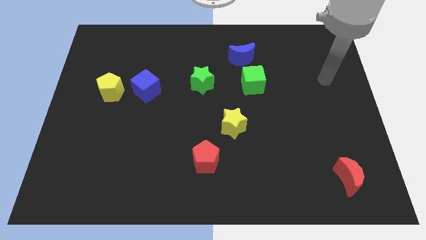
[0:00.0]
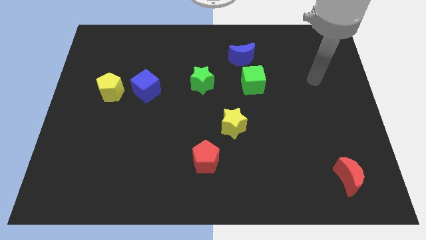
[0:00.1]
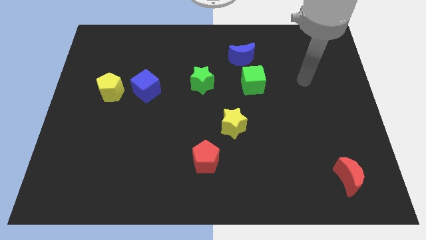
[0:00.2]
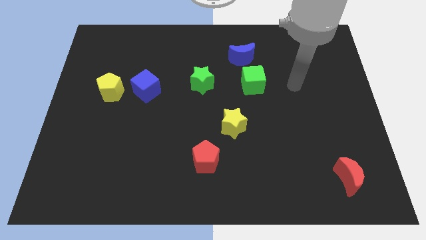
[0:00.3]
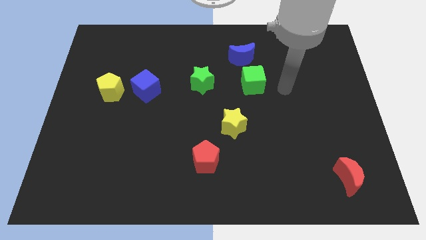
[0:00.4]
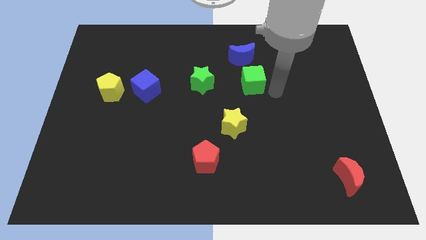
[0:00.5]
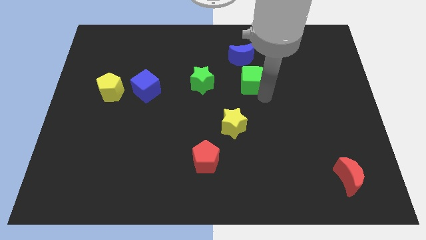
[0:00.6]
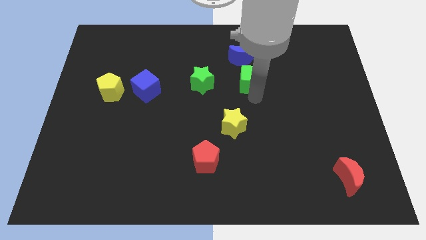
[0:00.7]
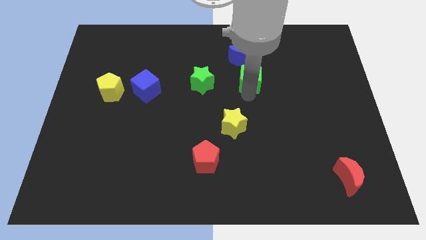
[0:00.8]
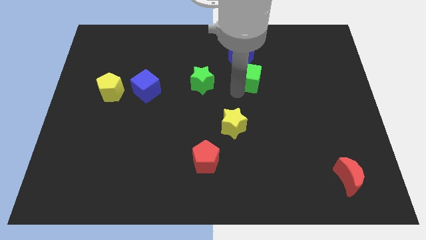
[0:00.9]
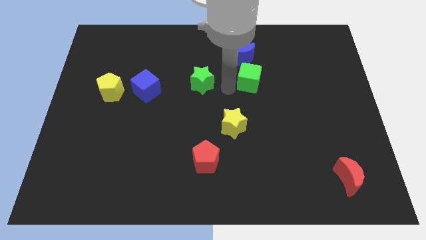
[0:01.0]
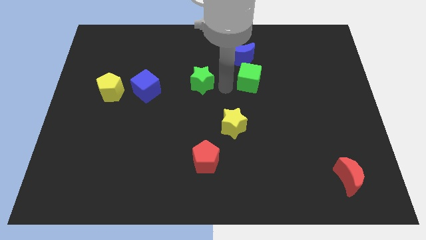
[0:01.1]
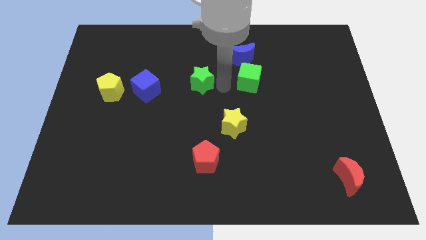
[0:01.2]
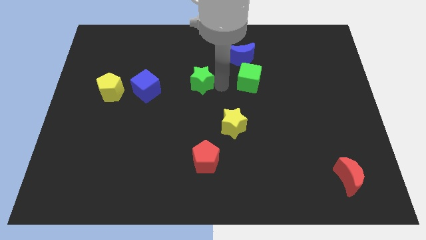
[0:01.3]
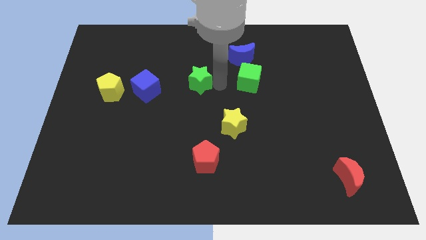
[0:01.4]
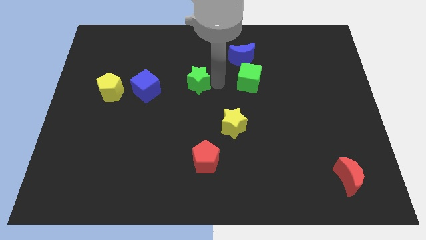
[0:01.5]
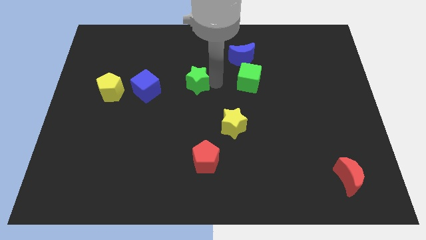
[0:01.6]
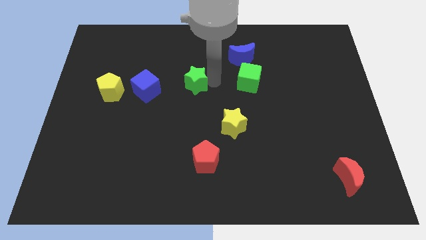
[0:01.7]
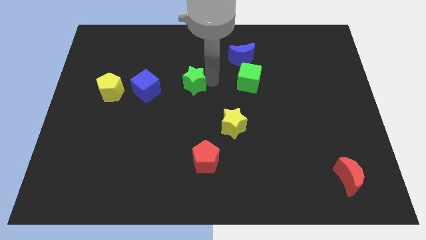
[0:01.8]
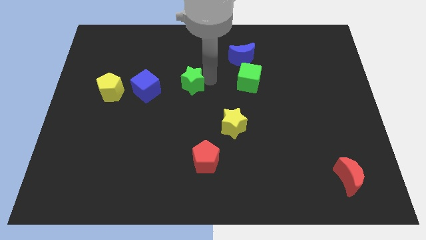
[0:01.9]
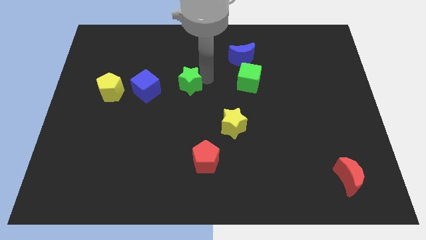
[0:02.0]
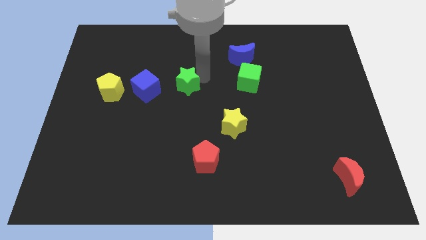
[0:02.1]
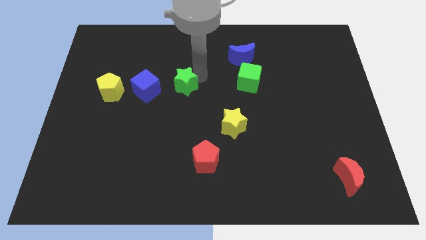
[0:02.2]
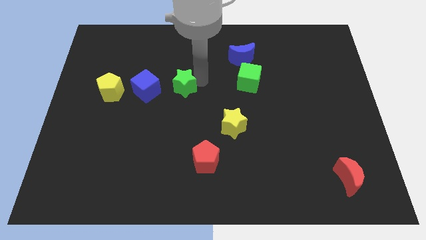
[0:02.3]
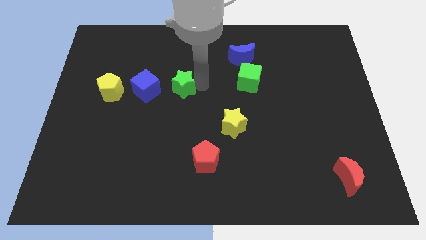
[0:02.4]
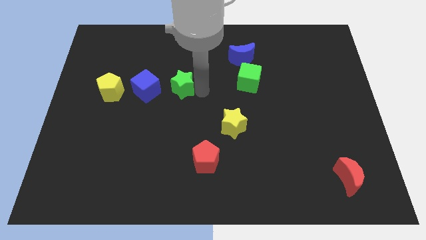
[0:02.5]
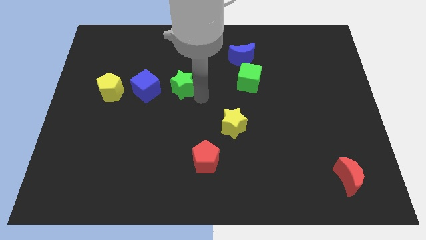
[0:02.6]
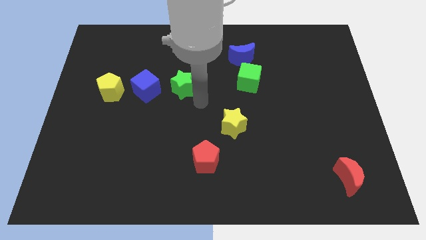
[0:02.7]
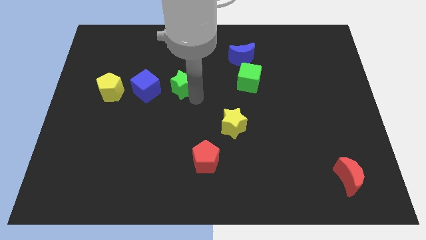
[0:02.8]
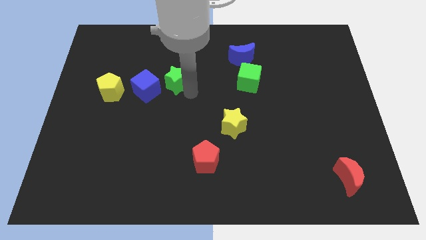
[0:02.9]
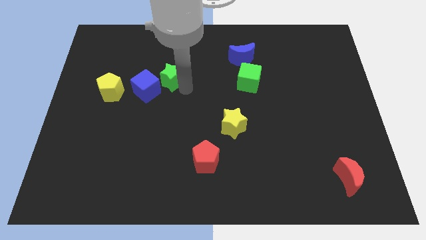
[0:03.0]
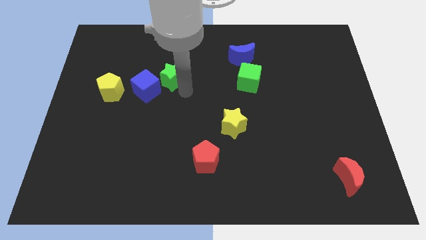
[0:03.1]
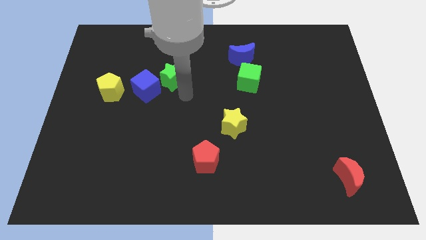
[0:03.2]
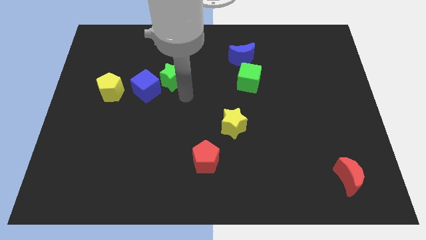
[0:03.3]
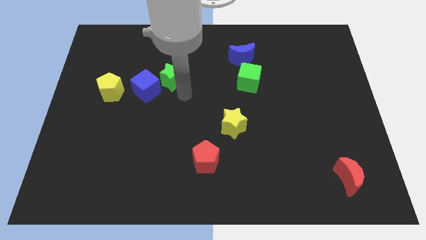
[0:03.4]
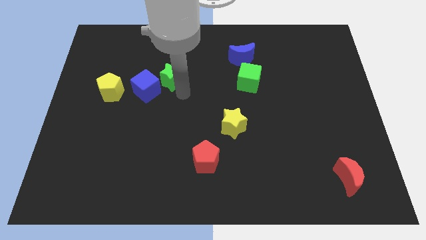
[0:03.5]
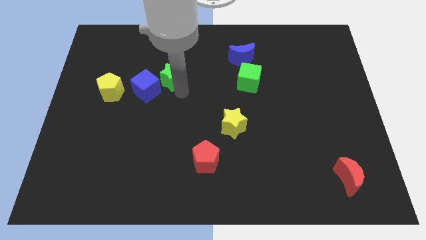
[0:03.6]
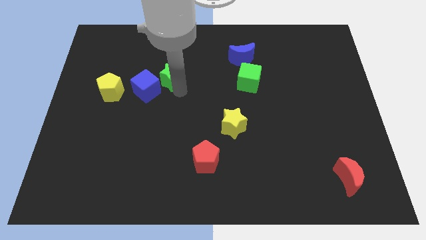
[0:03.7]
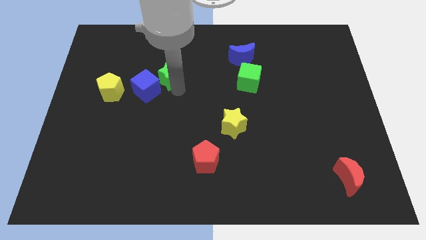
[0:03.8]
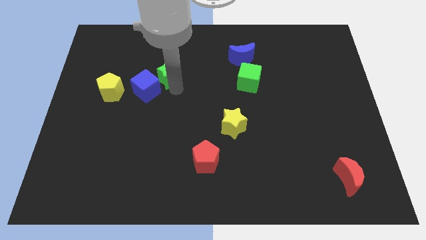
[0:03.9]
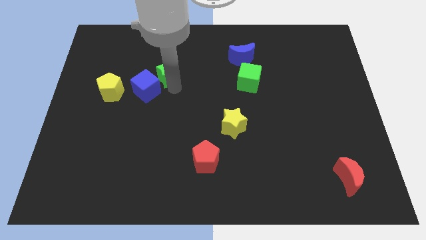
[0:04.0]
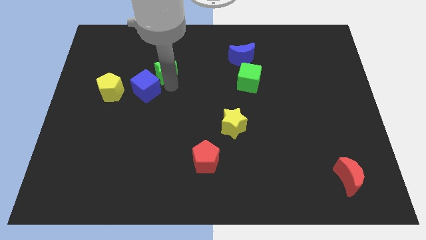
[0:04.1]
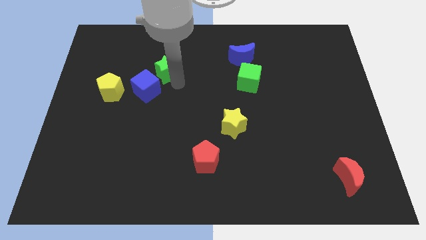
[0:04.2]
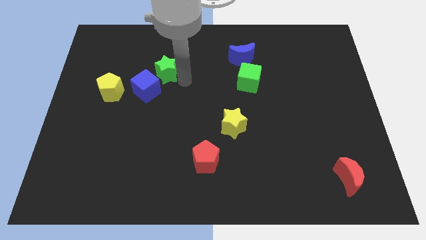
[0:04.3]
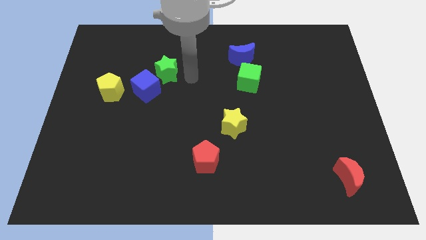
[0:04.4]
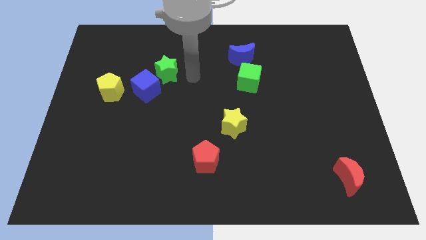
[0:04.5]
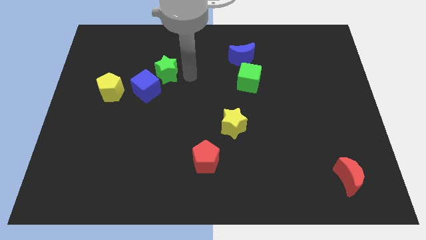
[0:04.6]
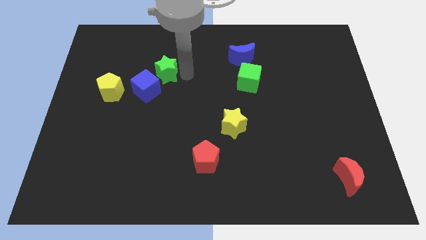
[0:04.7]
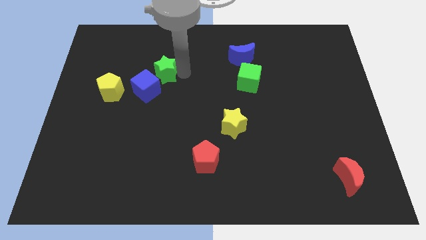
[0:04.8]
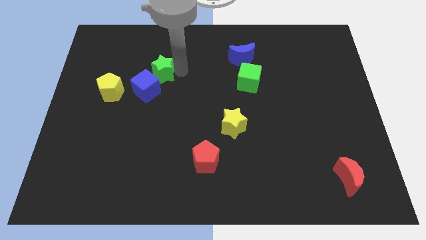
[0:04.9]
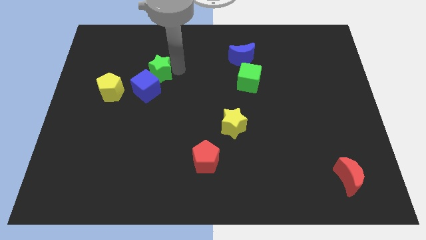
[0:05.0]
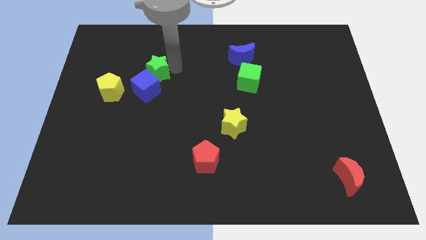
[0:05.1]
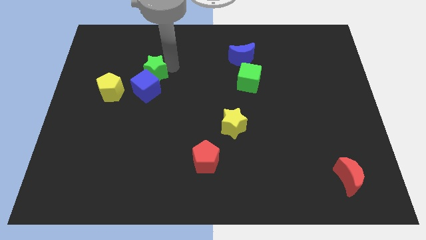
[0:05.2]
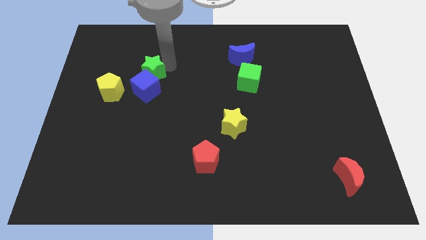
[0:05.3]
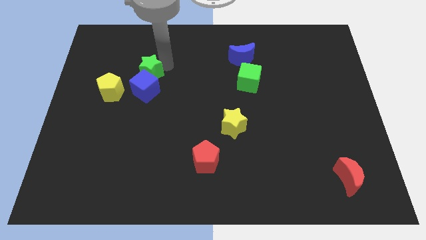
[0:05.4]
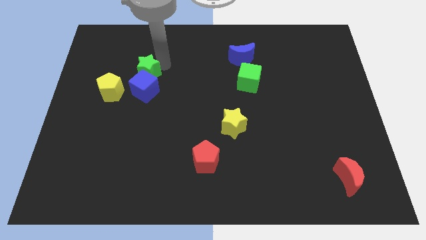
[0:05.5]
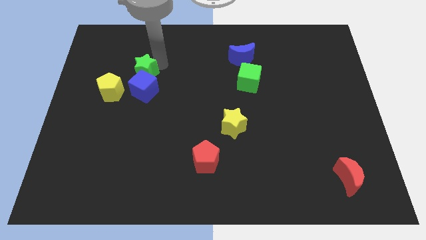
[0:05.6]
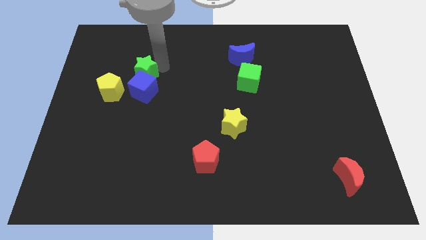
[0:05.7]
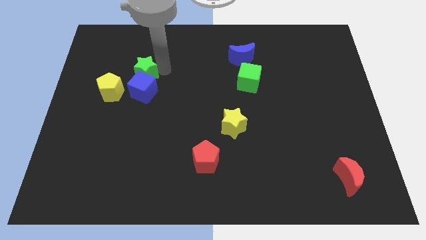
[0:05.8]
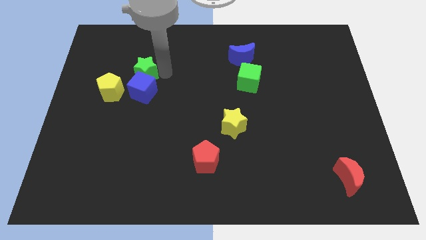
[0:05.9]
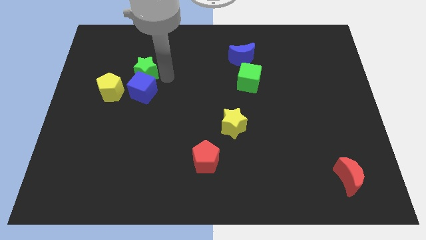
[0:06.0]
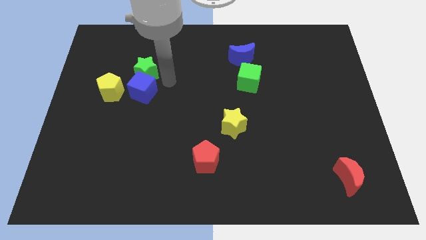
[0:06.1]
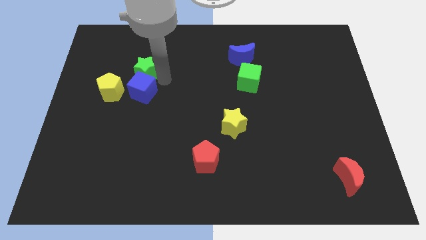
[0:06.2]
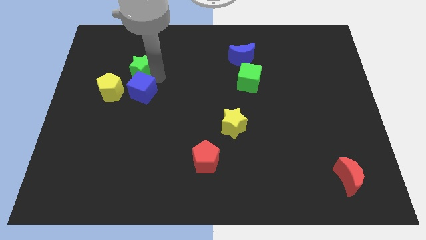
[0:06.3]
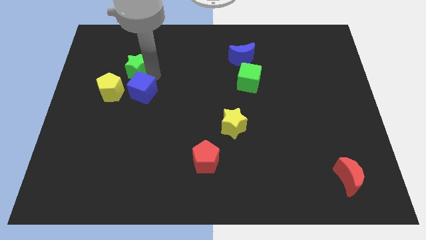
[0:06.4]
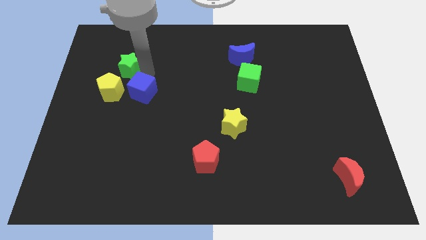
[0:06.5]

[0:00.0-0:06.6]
slide the green star above the yellow pentagon

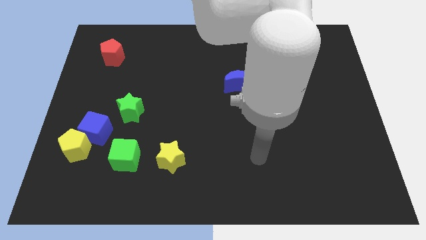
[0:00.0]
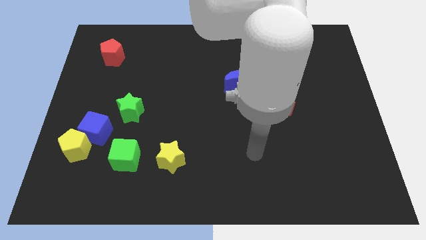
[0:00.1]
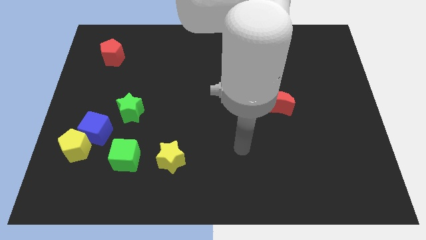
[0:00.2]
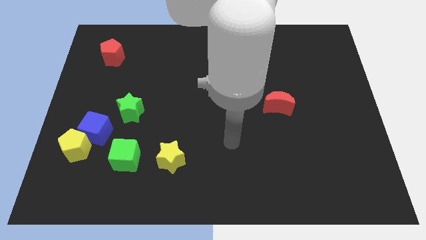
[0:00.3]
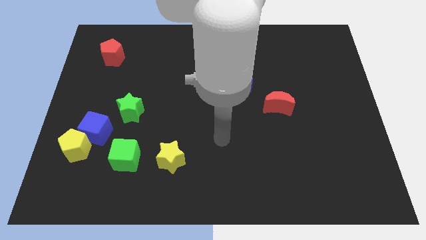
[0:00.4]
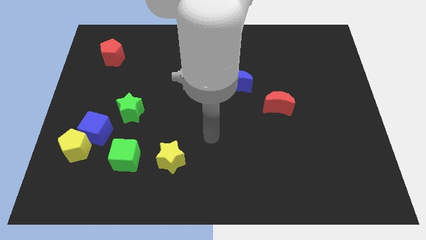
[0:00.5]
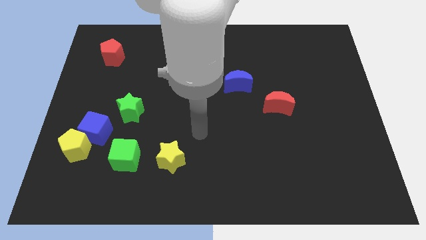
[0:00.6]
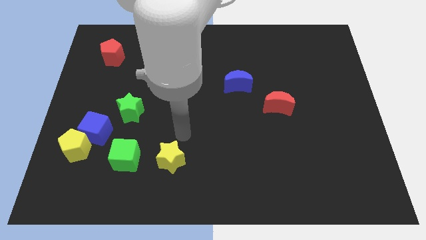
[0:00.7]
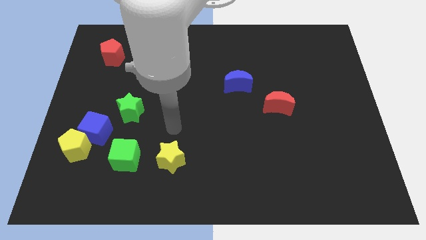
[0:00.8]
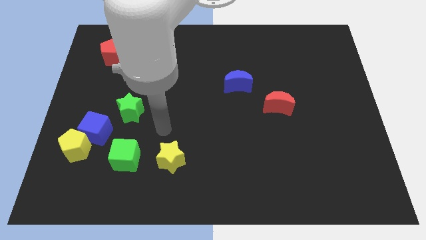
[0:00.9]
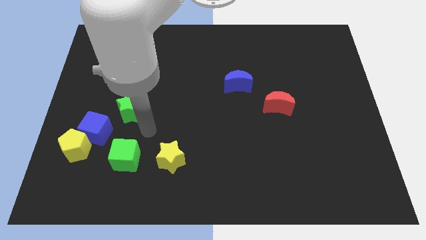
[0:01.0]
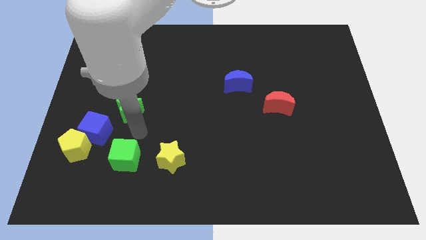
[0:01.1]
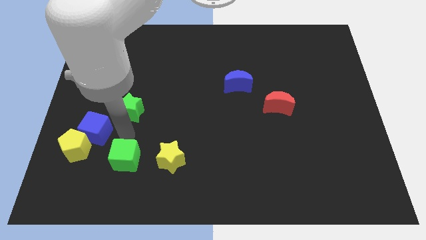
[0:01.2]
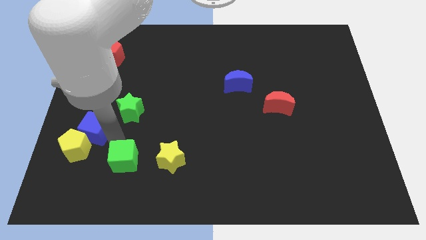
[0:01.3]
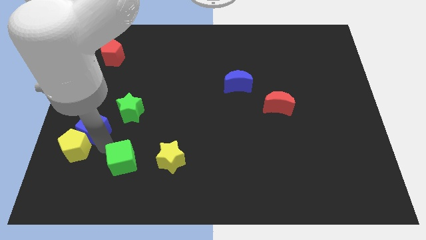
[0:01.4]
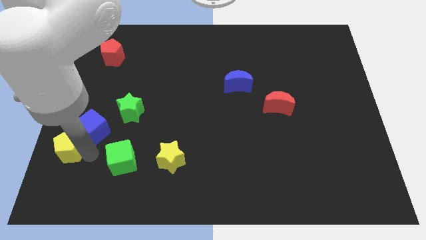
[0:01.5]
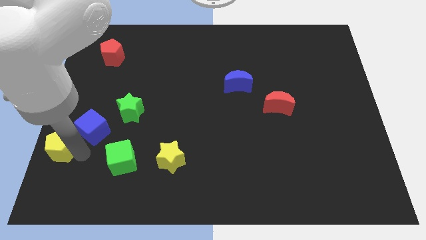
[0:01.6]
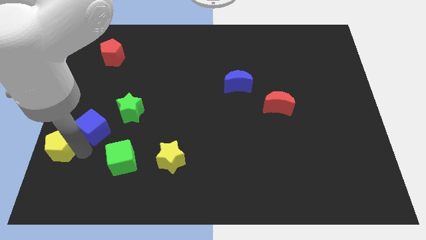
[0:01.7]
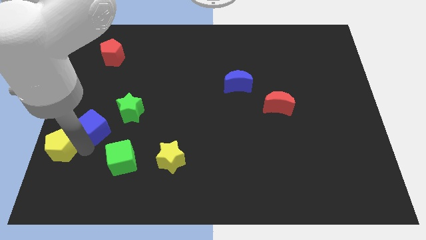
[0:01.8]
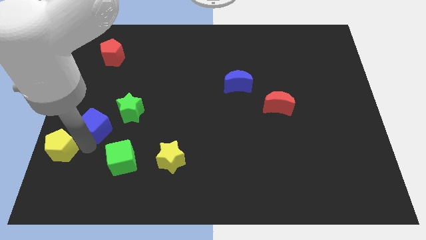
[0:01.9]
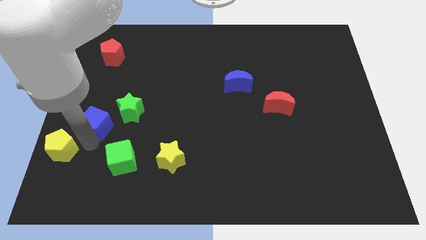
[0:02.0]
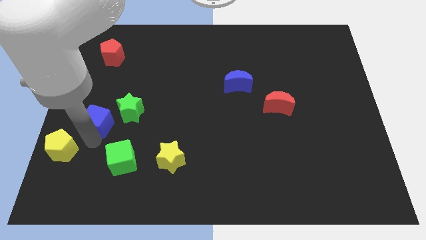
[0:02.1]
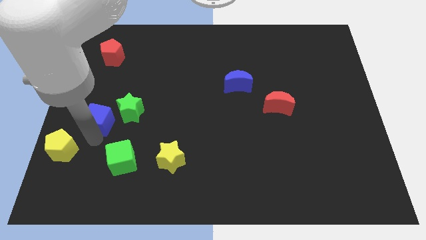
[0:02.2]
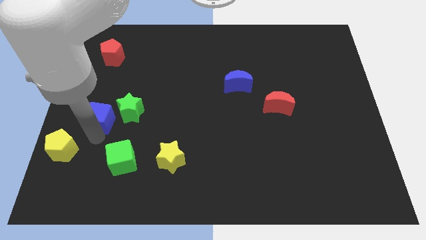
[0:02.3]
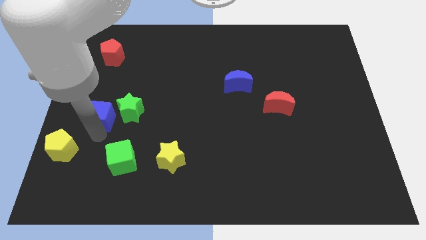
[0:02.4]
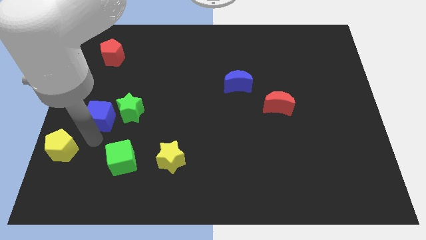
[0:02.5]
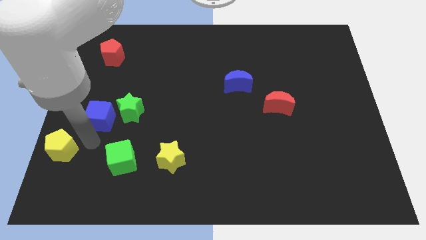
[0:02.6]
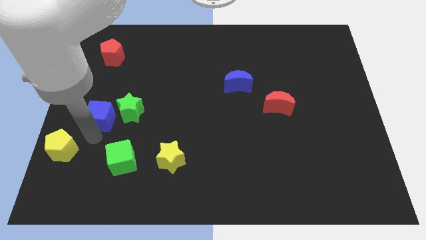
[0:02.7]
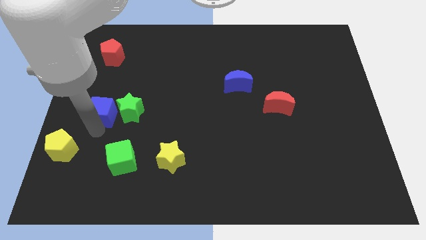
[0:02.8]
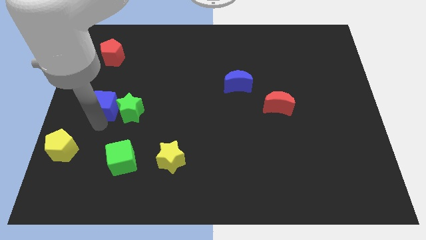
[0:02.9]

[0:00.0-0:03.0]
put the blue cube diagonally up and to the left of the green star
